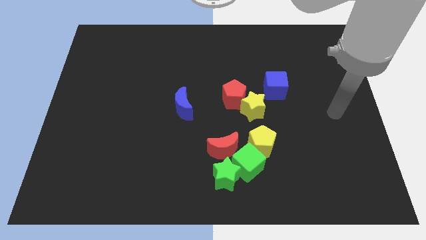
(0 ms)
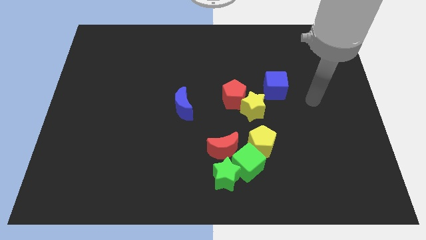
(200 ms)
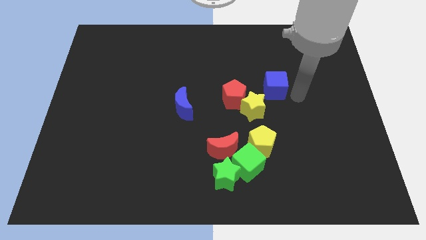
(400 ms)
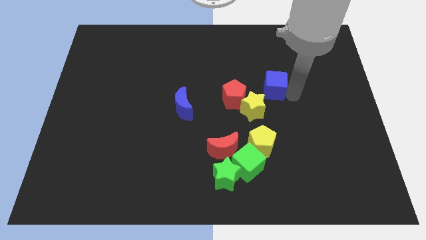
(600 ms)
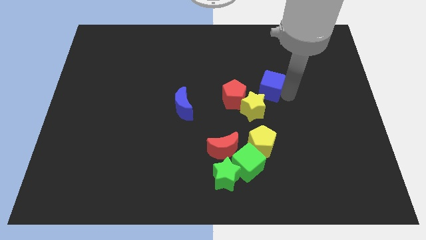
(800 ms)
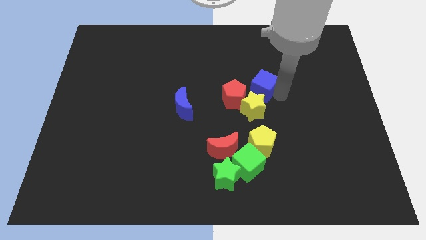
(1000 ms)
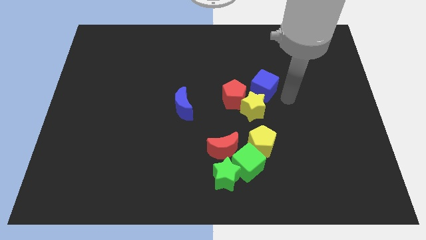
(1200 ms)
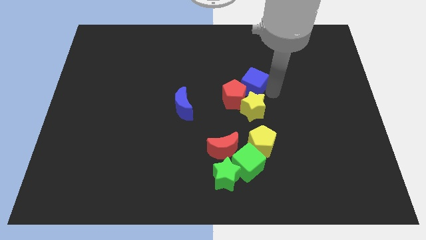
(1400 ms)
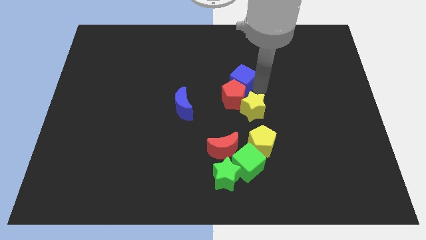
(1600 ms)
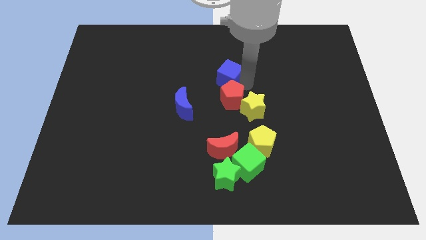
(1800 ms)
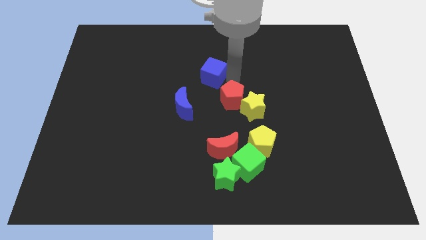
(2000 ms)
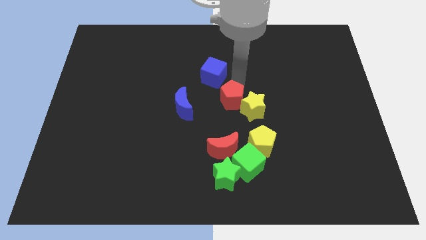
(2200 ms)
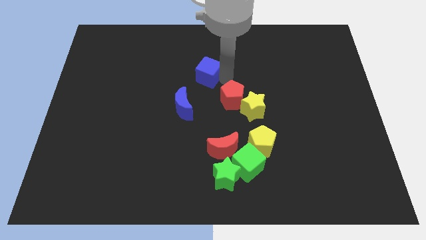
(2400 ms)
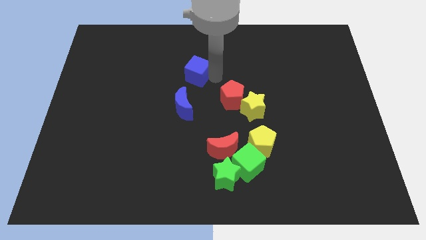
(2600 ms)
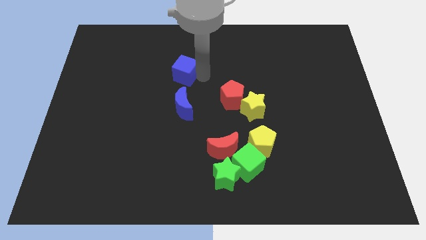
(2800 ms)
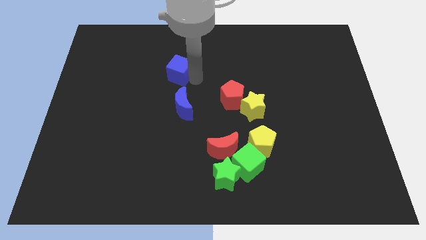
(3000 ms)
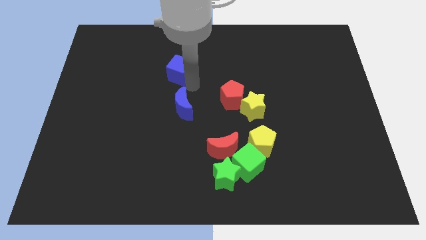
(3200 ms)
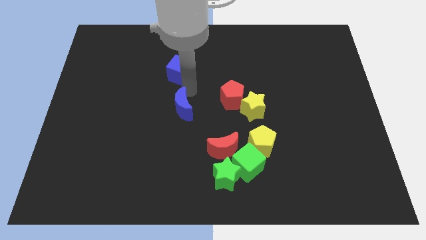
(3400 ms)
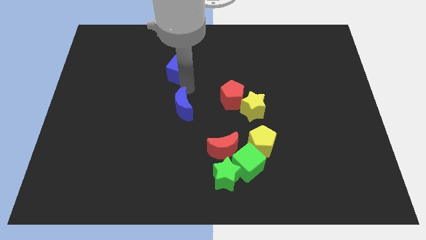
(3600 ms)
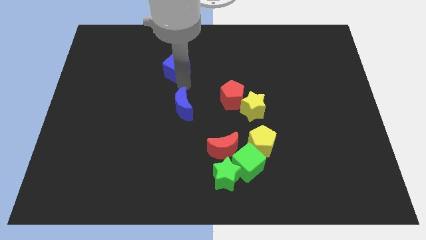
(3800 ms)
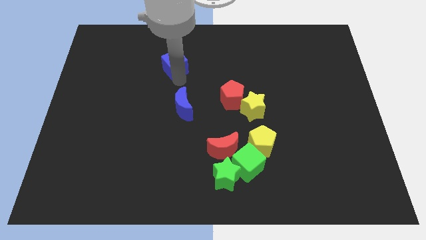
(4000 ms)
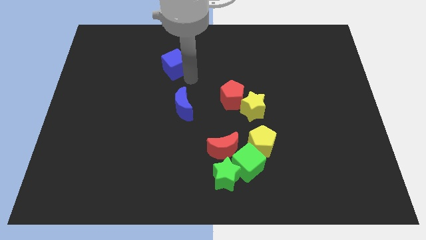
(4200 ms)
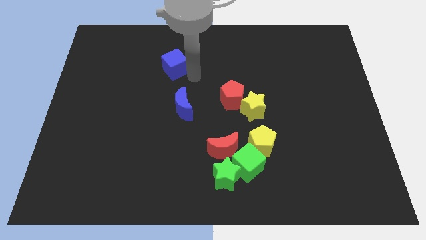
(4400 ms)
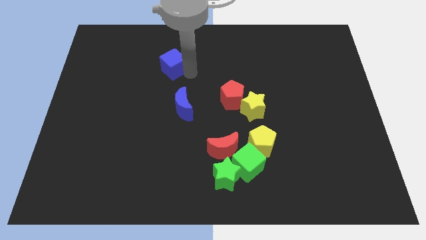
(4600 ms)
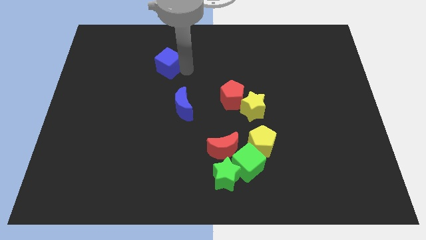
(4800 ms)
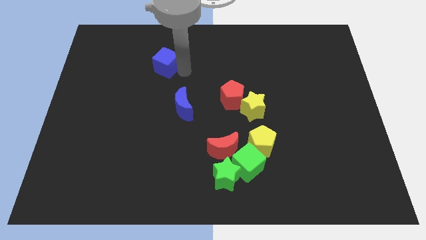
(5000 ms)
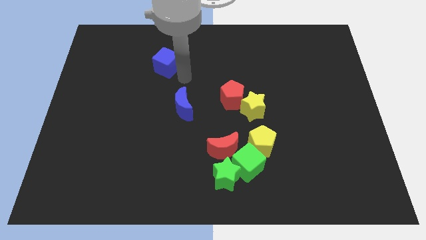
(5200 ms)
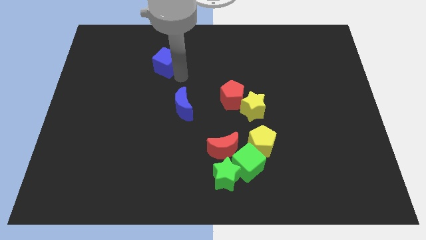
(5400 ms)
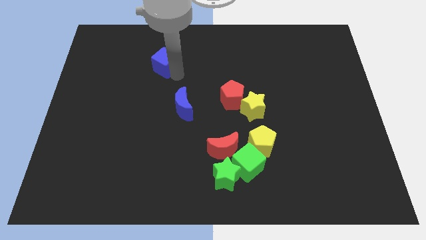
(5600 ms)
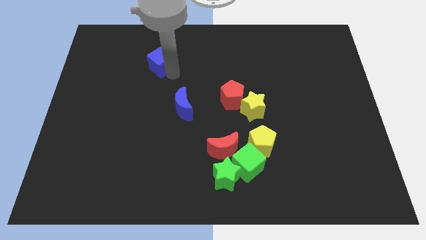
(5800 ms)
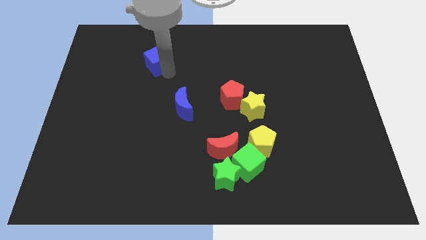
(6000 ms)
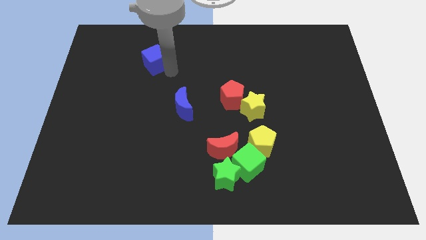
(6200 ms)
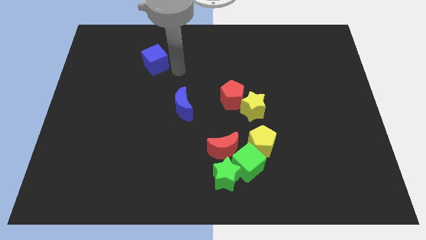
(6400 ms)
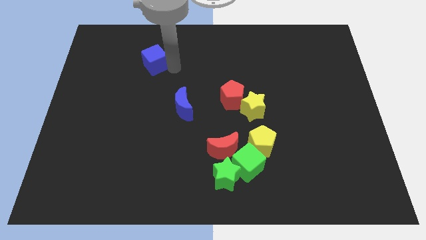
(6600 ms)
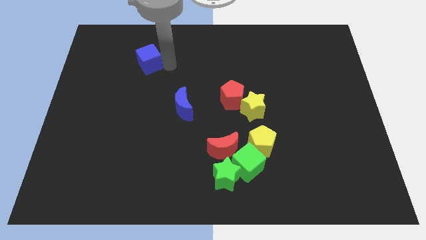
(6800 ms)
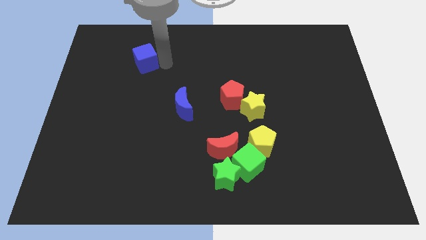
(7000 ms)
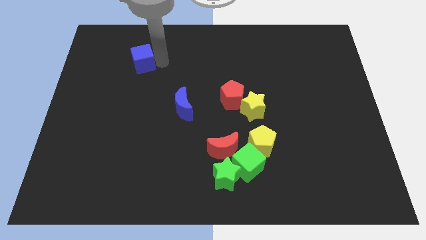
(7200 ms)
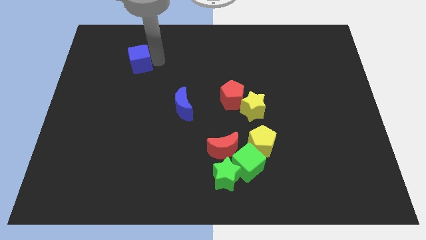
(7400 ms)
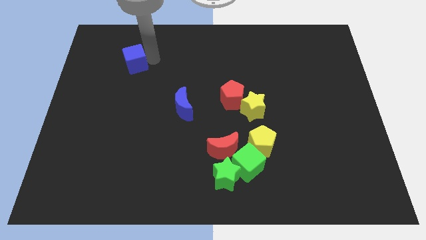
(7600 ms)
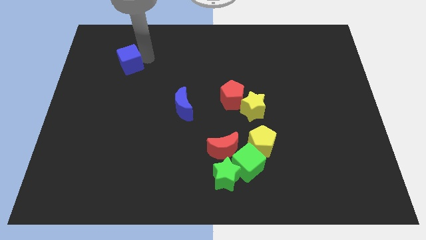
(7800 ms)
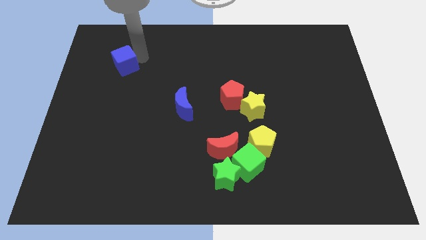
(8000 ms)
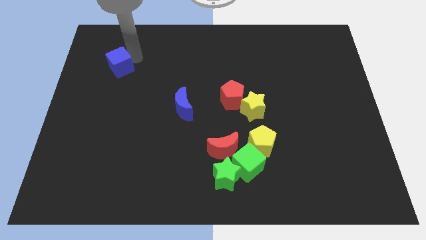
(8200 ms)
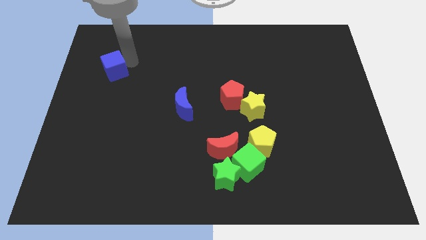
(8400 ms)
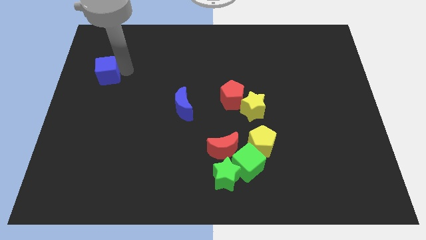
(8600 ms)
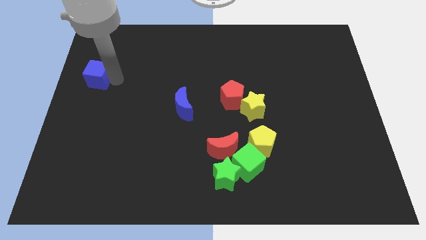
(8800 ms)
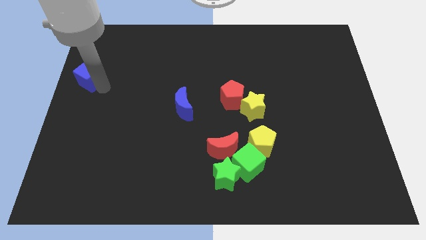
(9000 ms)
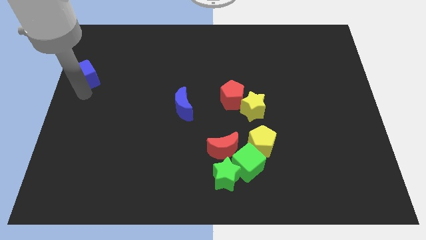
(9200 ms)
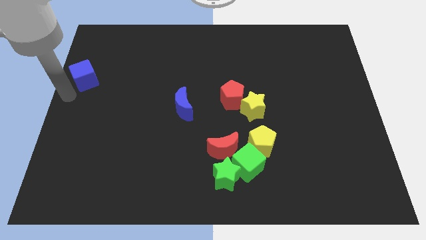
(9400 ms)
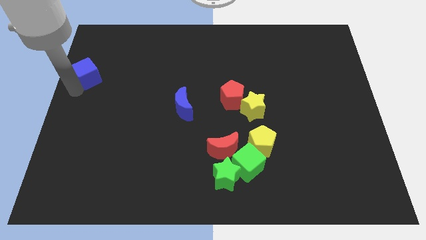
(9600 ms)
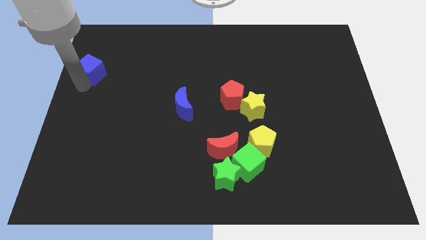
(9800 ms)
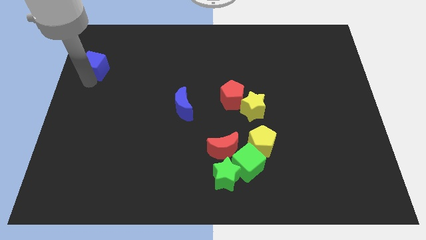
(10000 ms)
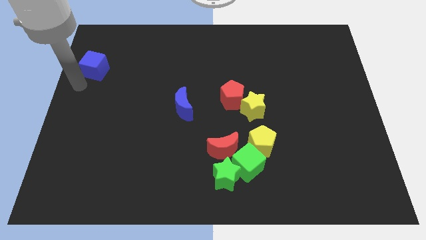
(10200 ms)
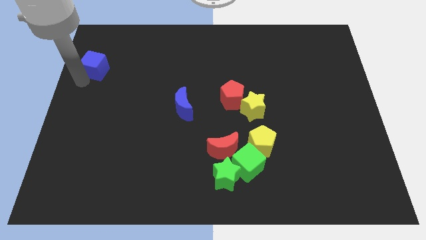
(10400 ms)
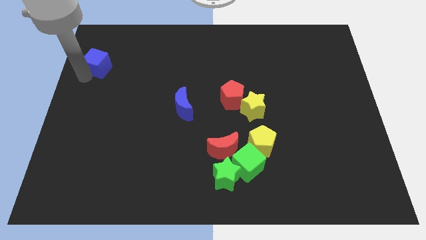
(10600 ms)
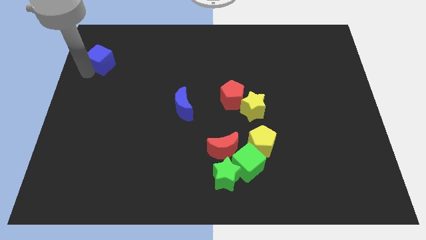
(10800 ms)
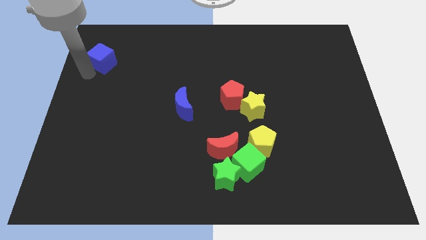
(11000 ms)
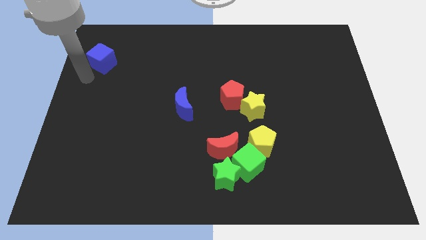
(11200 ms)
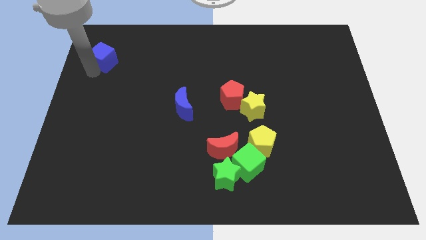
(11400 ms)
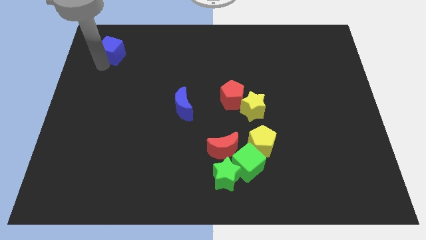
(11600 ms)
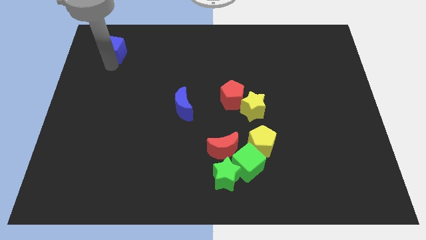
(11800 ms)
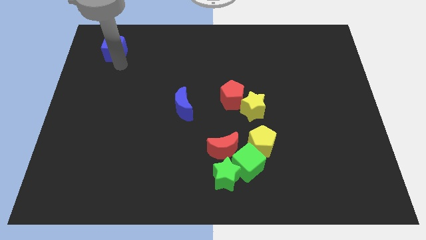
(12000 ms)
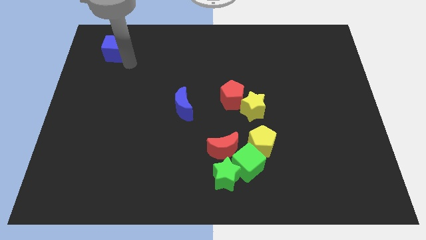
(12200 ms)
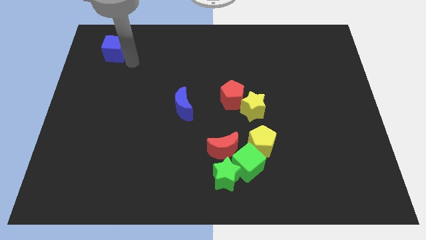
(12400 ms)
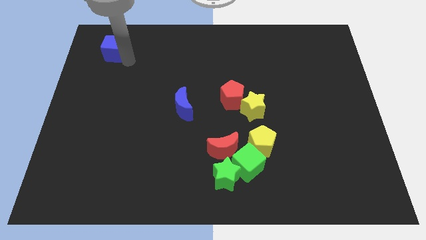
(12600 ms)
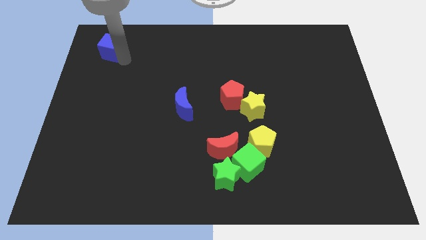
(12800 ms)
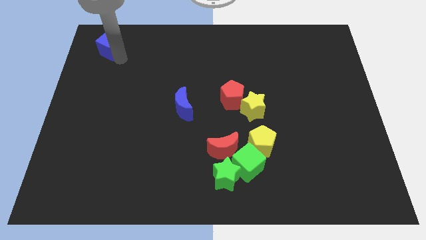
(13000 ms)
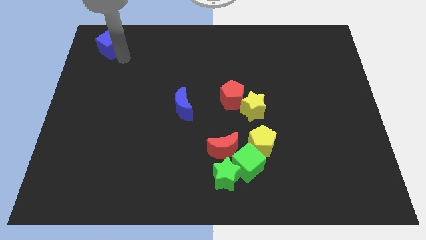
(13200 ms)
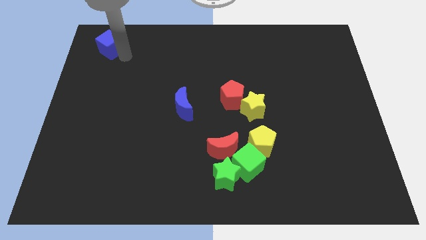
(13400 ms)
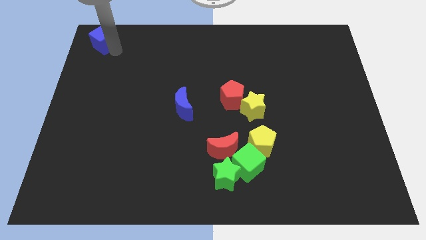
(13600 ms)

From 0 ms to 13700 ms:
move the blue cube to the top left corner

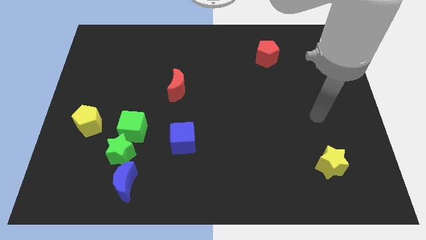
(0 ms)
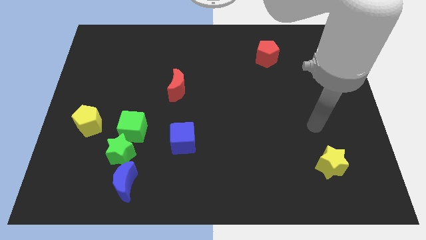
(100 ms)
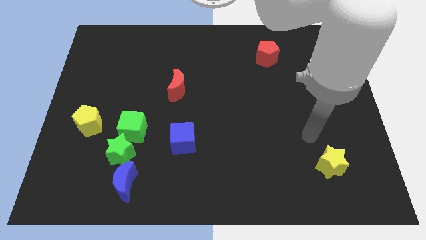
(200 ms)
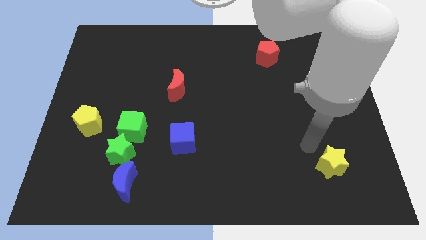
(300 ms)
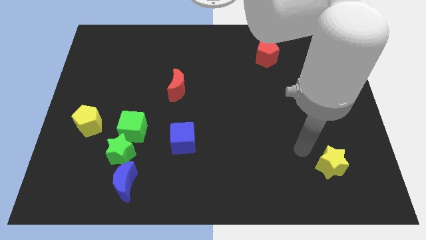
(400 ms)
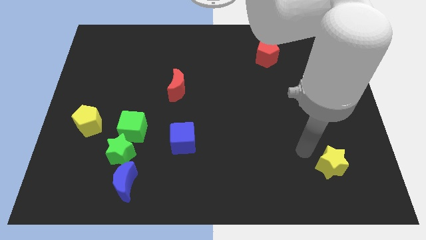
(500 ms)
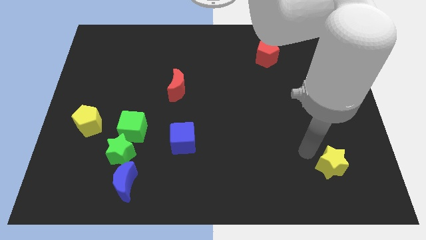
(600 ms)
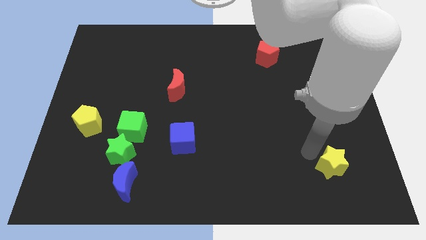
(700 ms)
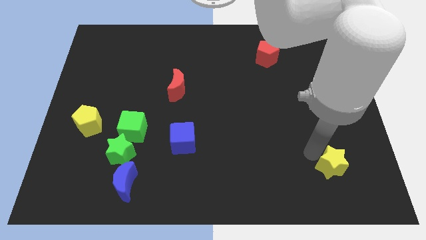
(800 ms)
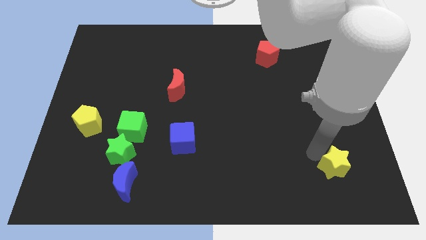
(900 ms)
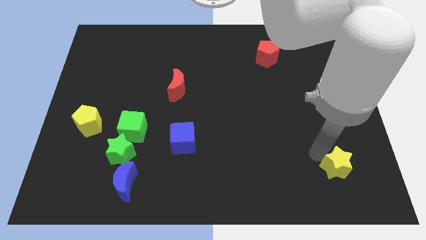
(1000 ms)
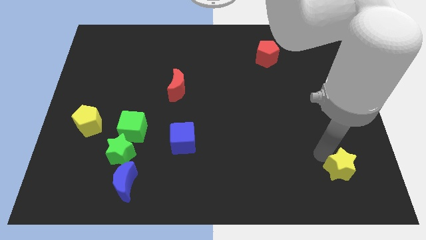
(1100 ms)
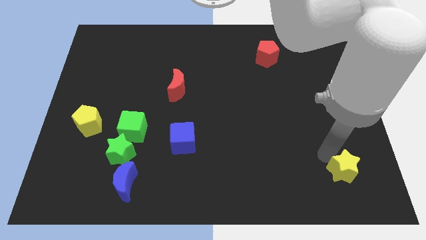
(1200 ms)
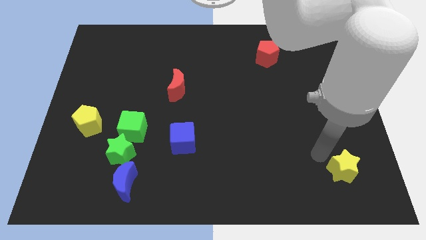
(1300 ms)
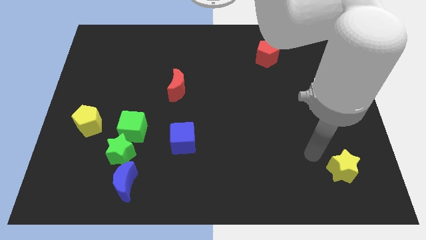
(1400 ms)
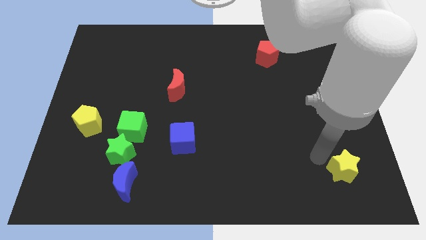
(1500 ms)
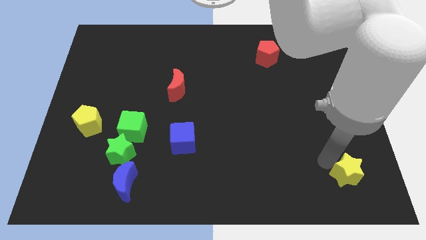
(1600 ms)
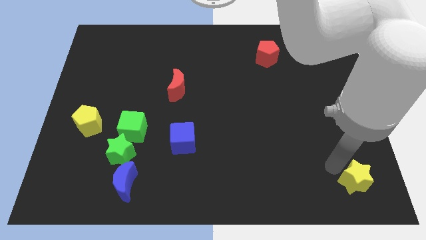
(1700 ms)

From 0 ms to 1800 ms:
put the yellow star to the bottom right of the board
